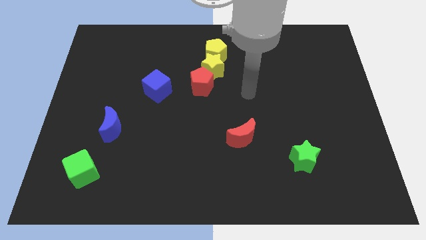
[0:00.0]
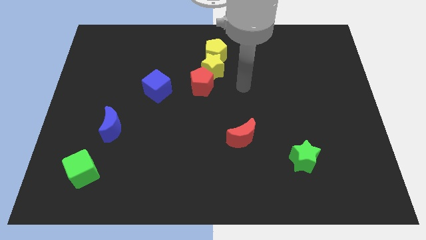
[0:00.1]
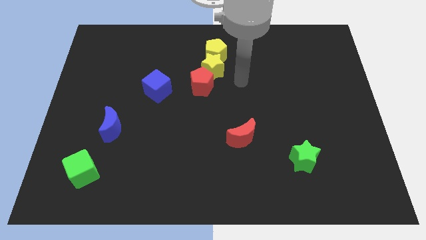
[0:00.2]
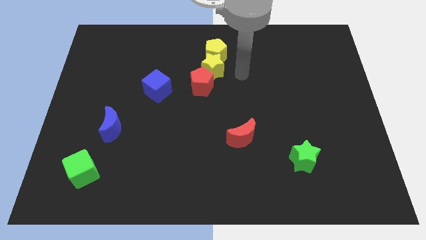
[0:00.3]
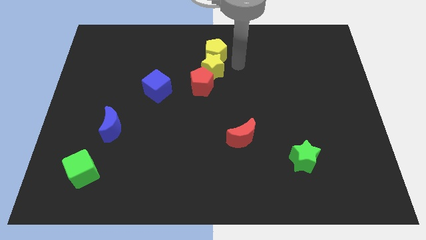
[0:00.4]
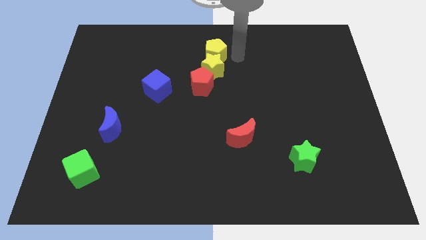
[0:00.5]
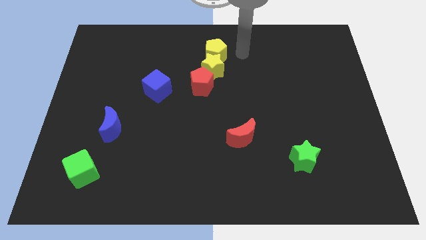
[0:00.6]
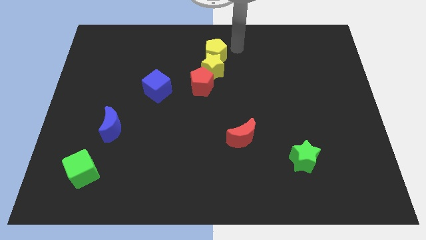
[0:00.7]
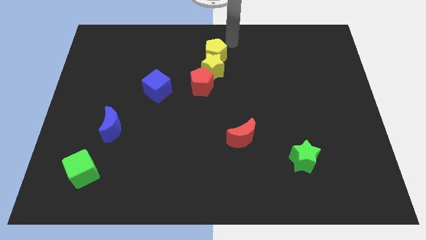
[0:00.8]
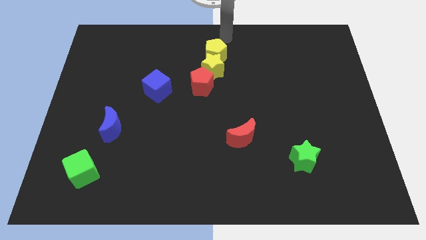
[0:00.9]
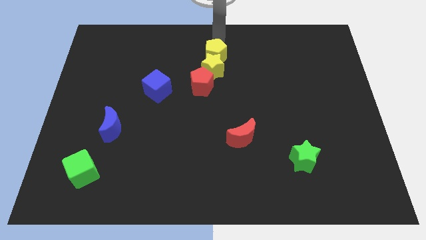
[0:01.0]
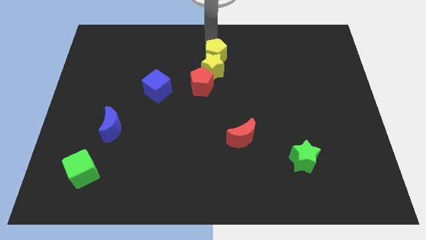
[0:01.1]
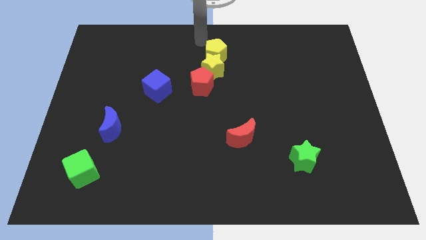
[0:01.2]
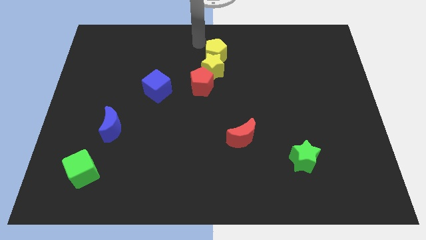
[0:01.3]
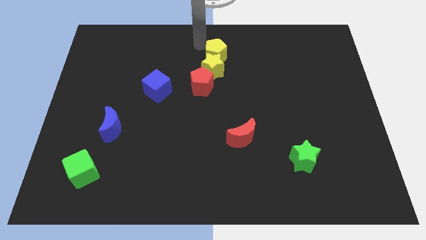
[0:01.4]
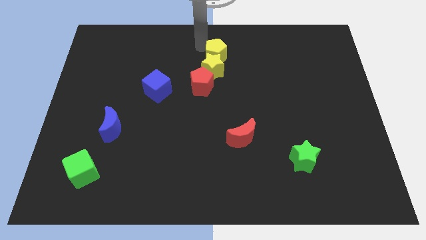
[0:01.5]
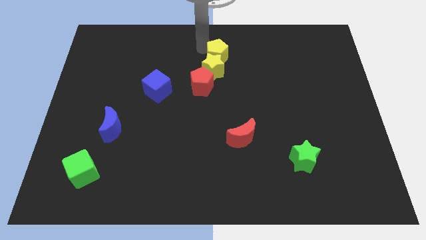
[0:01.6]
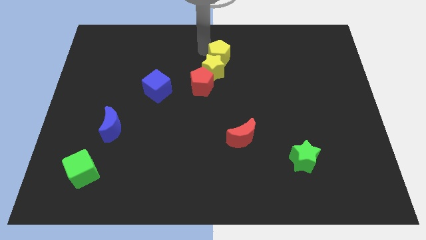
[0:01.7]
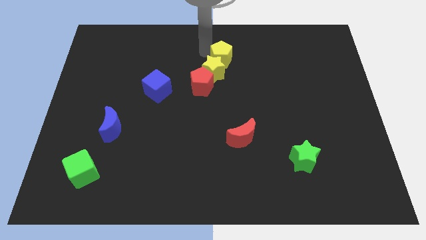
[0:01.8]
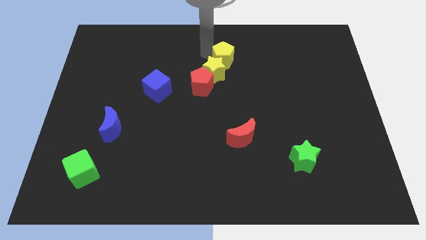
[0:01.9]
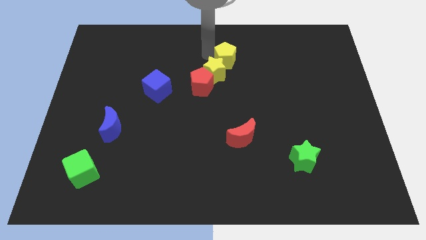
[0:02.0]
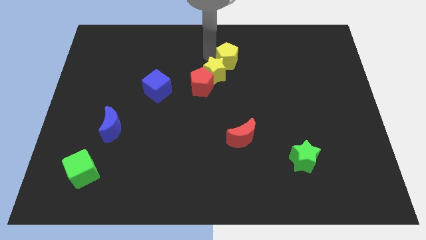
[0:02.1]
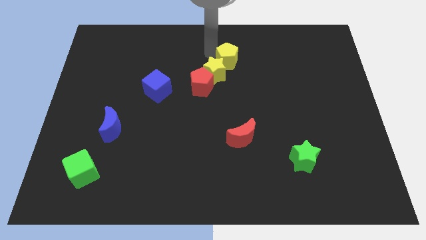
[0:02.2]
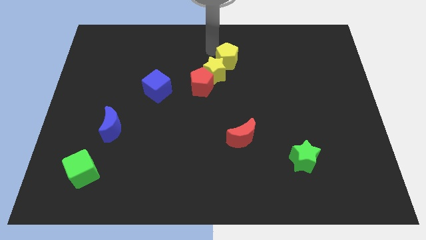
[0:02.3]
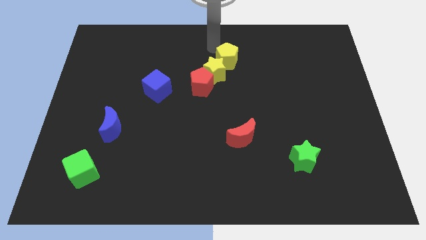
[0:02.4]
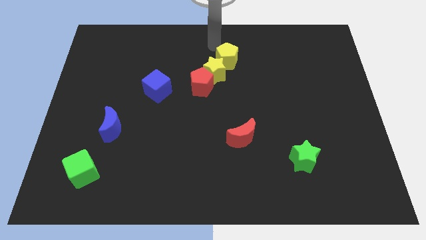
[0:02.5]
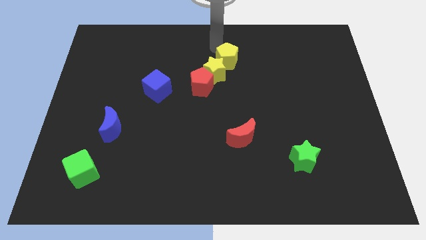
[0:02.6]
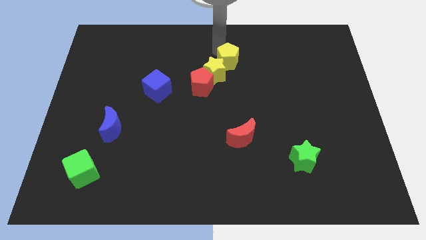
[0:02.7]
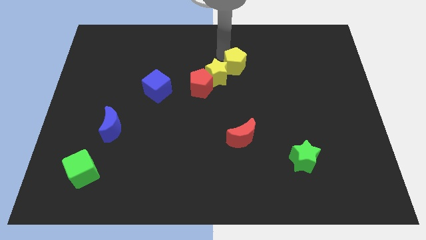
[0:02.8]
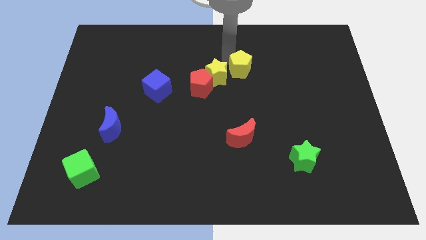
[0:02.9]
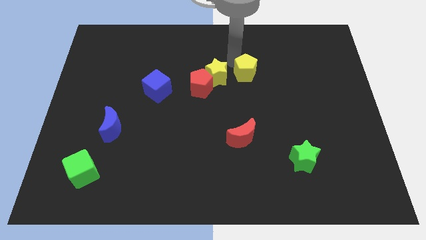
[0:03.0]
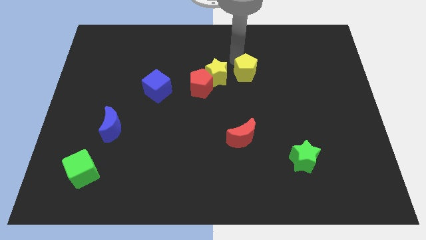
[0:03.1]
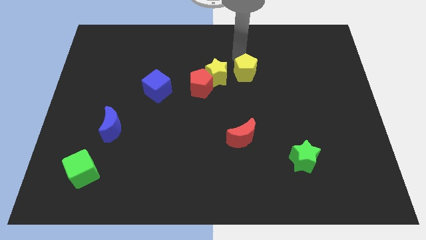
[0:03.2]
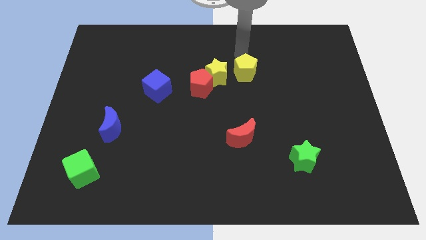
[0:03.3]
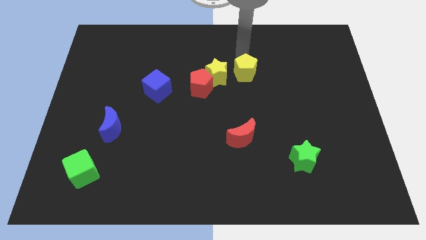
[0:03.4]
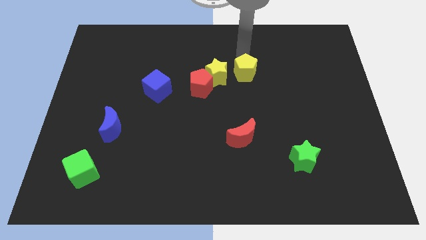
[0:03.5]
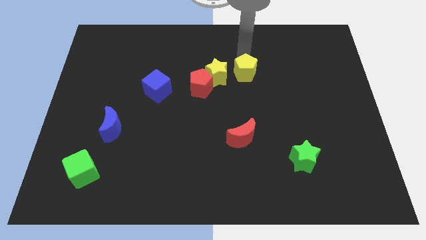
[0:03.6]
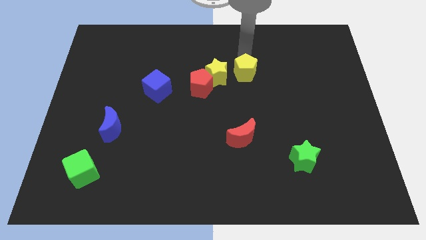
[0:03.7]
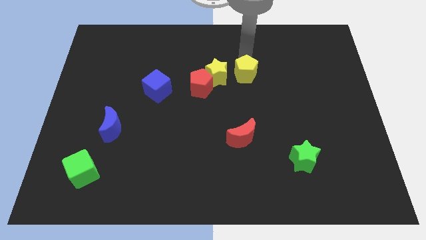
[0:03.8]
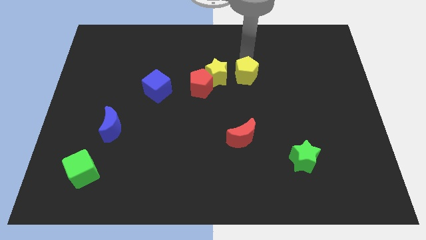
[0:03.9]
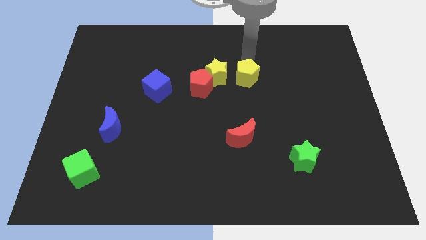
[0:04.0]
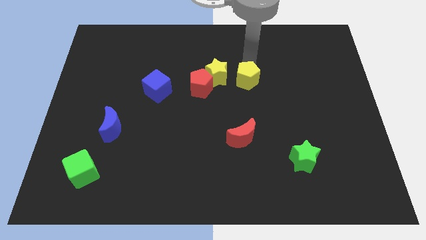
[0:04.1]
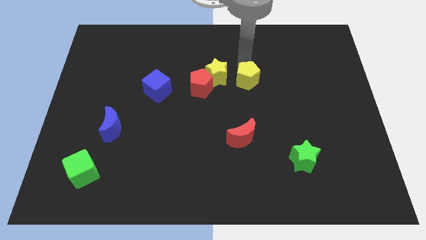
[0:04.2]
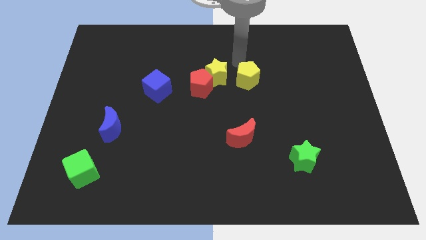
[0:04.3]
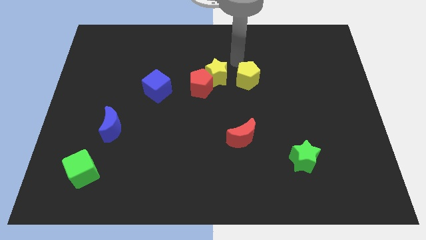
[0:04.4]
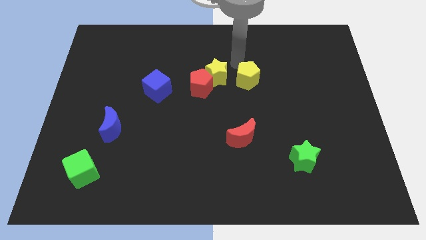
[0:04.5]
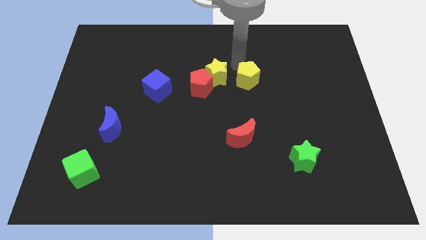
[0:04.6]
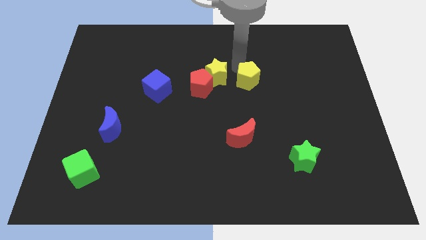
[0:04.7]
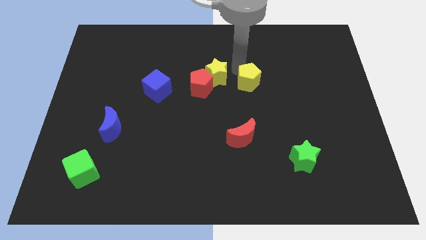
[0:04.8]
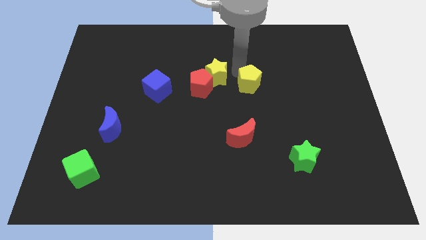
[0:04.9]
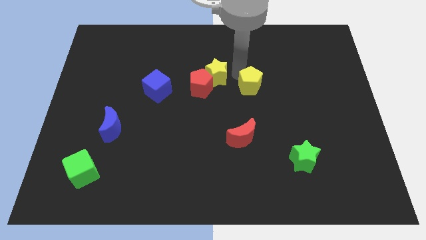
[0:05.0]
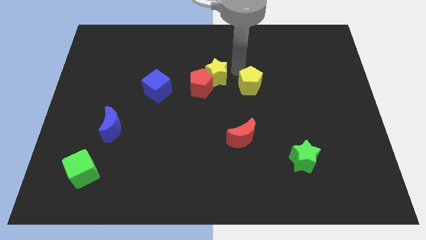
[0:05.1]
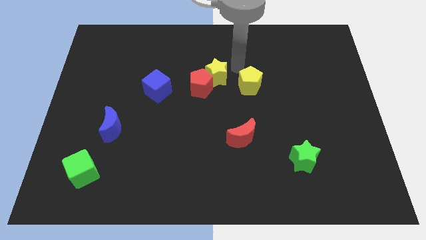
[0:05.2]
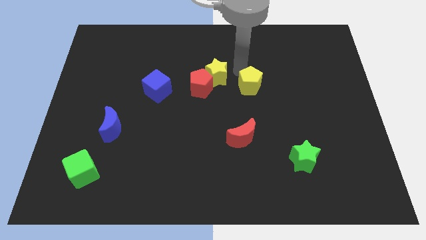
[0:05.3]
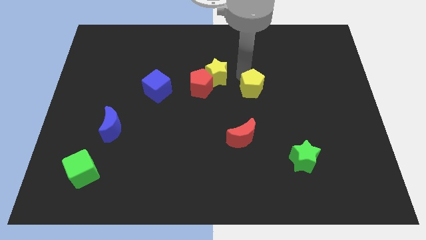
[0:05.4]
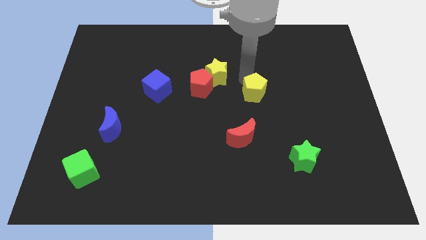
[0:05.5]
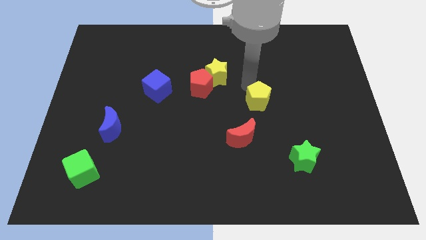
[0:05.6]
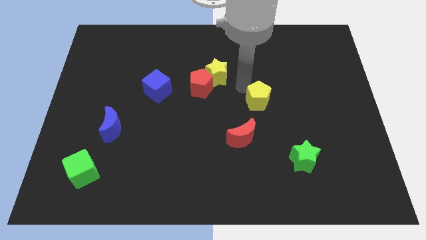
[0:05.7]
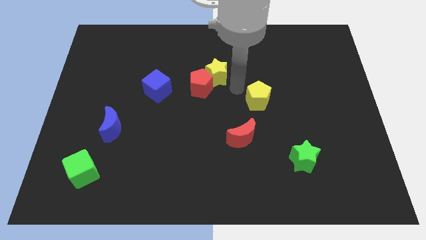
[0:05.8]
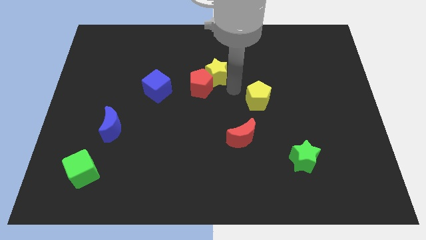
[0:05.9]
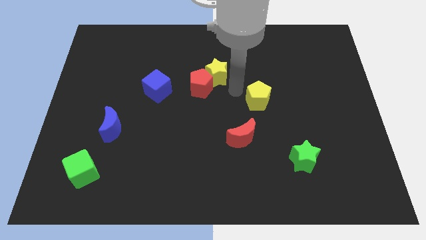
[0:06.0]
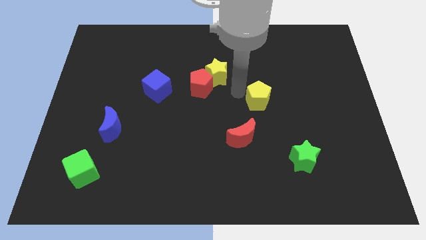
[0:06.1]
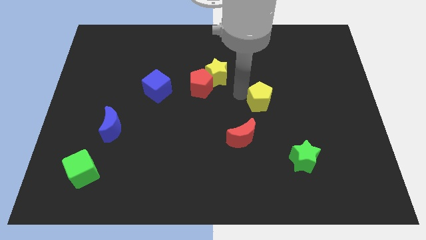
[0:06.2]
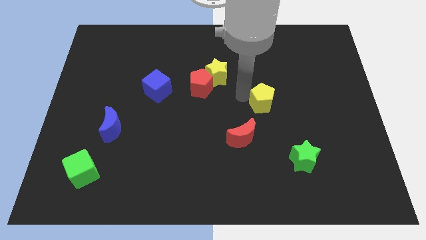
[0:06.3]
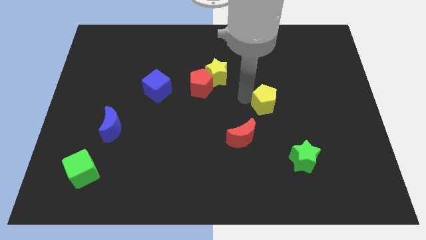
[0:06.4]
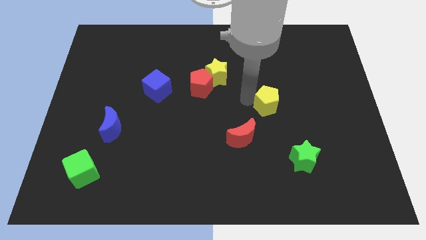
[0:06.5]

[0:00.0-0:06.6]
slide the yellow pentagon down and then to the right

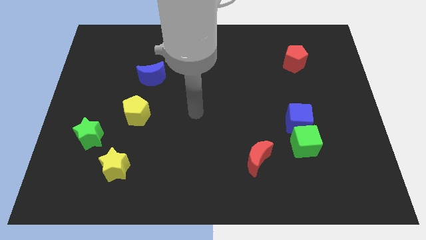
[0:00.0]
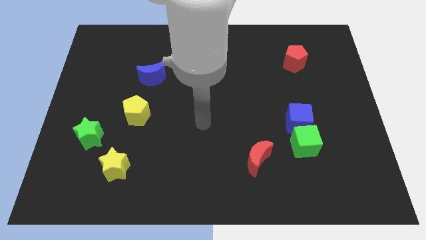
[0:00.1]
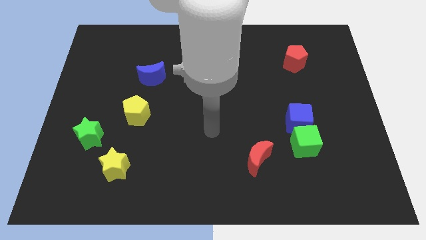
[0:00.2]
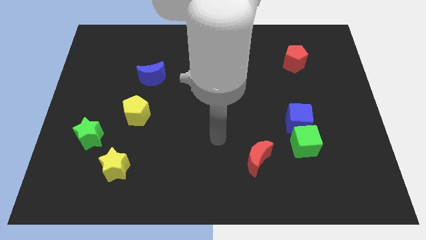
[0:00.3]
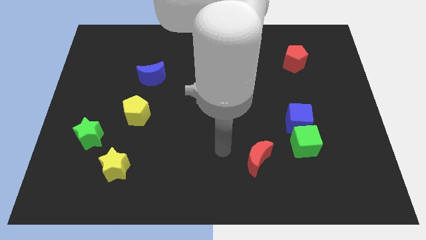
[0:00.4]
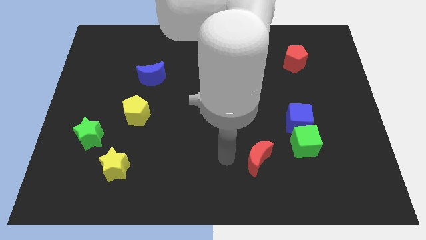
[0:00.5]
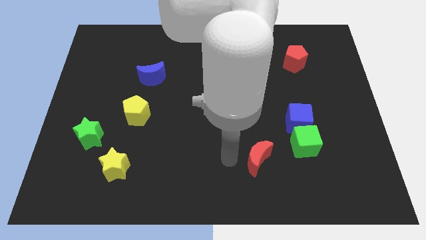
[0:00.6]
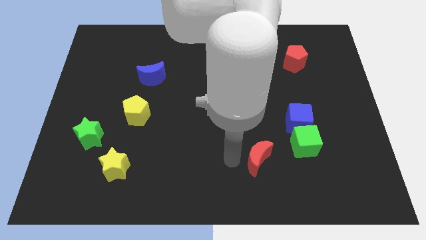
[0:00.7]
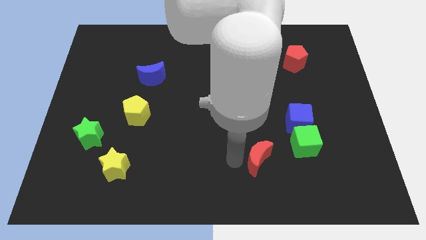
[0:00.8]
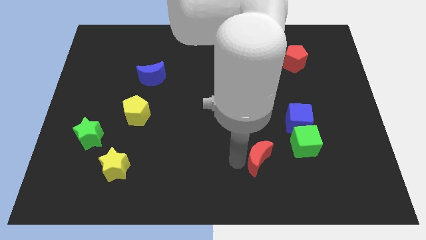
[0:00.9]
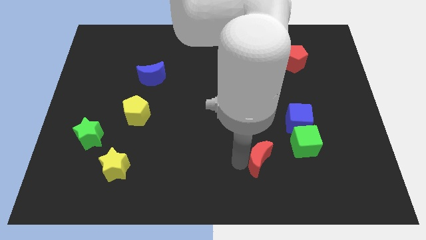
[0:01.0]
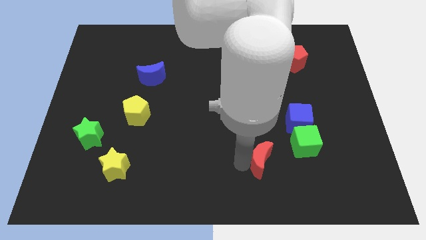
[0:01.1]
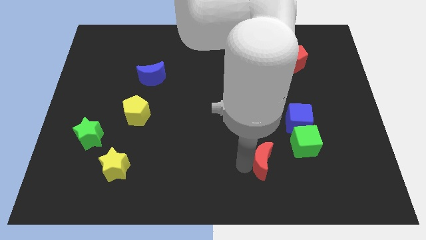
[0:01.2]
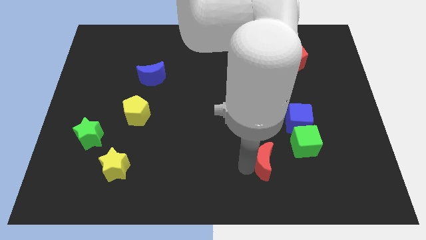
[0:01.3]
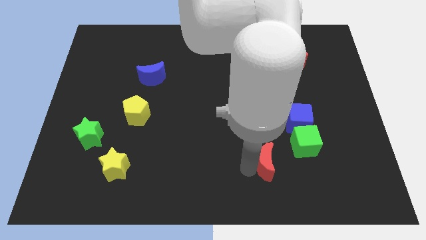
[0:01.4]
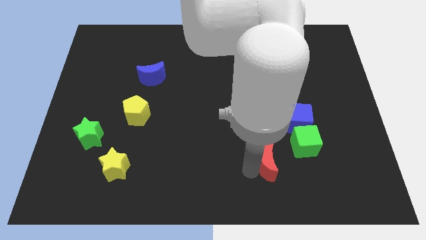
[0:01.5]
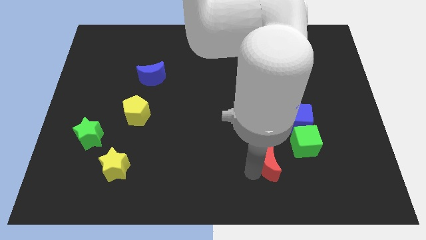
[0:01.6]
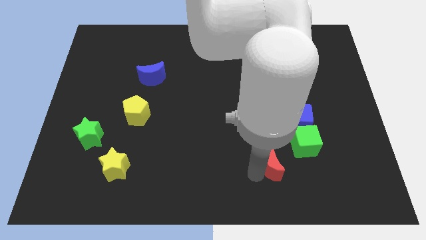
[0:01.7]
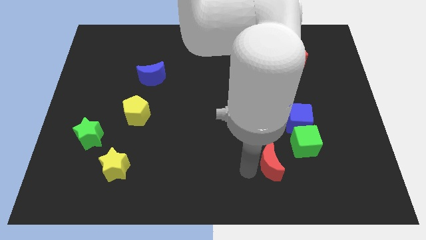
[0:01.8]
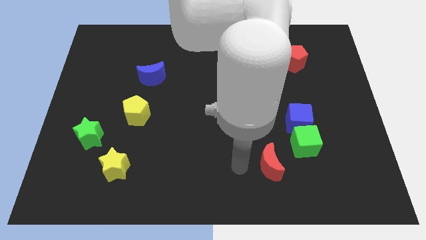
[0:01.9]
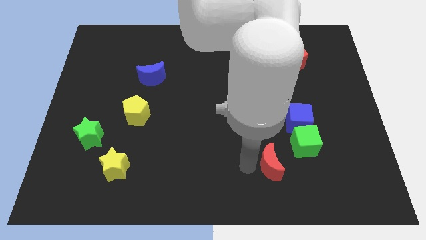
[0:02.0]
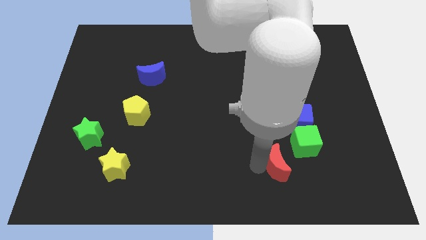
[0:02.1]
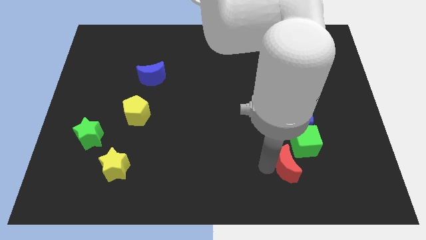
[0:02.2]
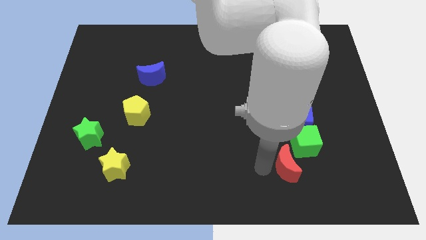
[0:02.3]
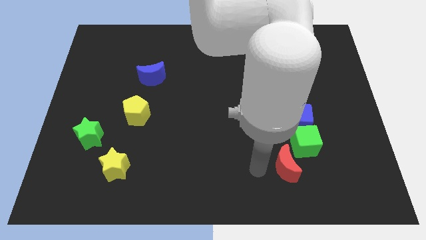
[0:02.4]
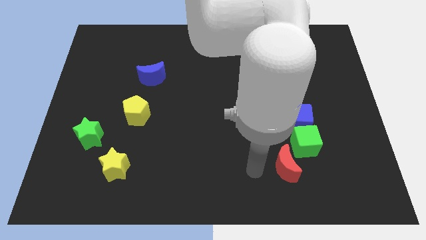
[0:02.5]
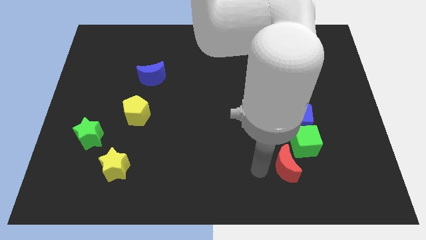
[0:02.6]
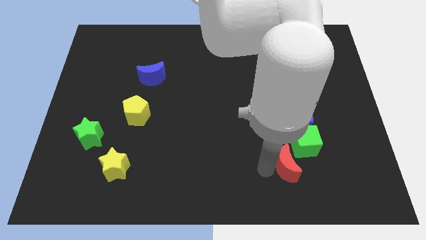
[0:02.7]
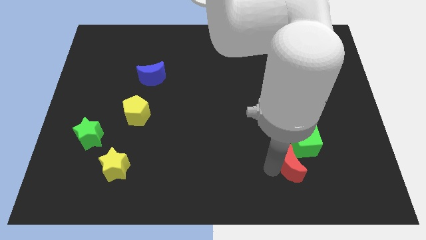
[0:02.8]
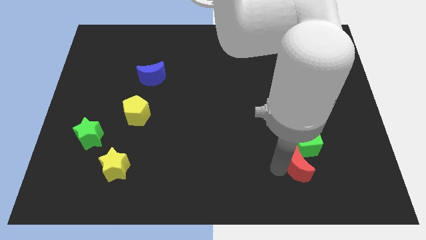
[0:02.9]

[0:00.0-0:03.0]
move the red moon to the right slightly
